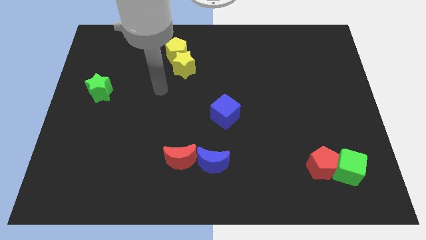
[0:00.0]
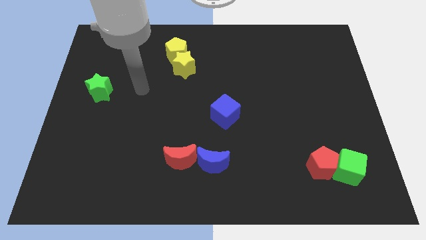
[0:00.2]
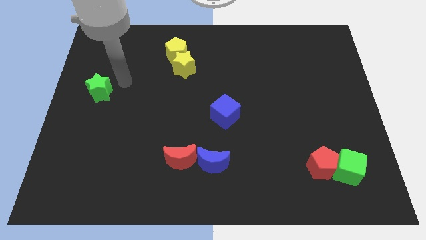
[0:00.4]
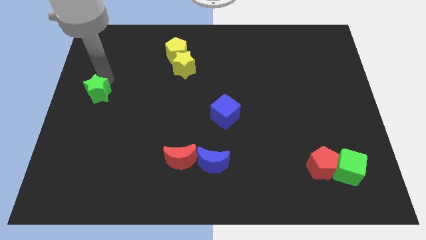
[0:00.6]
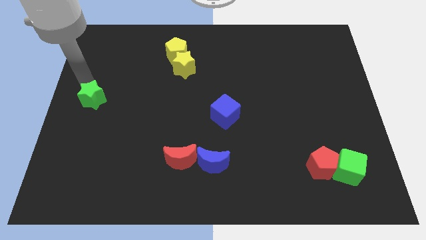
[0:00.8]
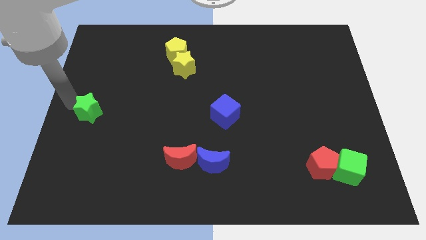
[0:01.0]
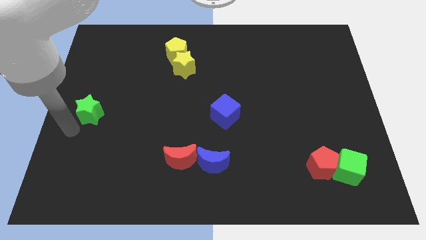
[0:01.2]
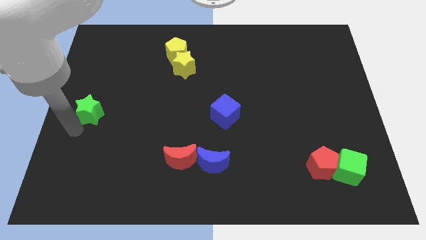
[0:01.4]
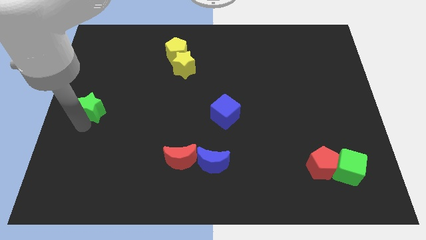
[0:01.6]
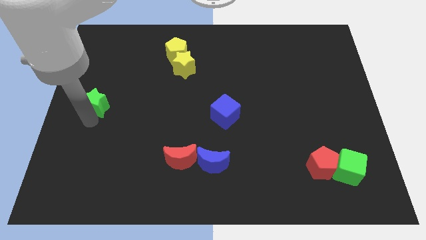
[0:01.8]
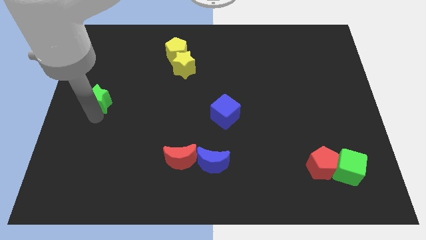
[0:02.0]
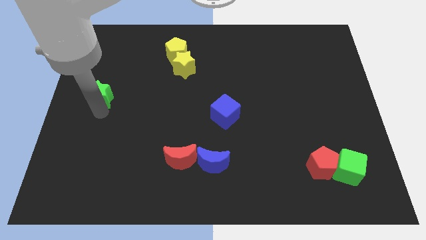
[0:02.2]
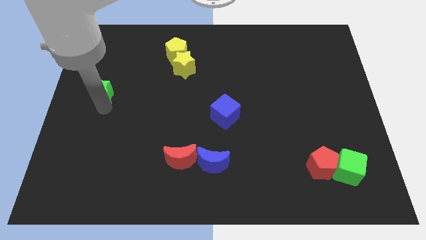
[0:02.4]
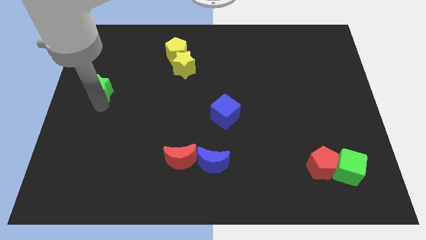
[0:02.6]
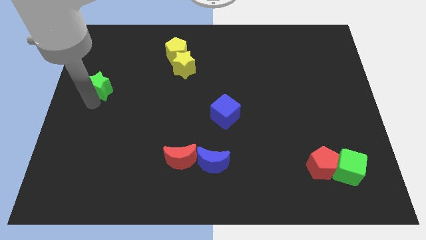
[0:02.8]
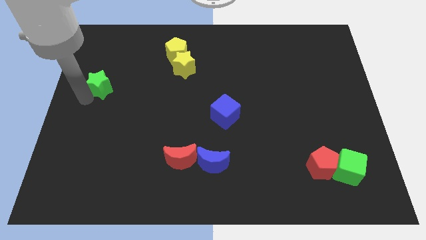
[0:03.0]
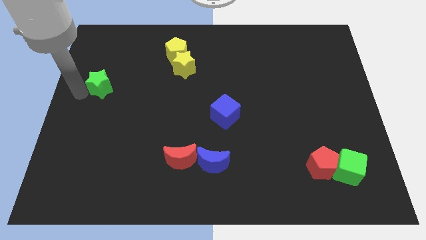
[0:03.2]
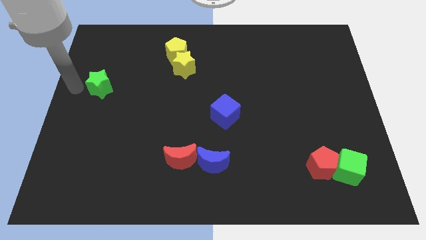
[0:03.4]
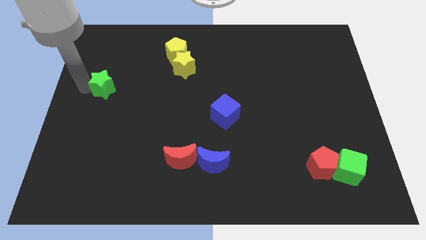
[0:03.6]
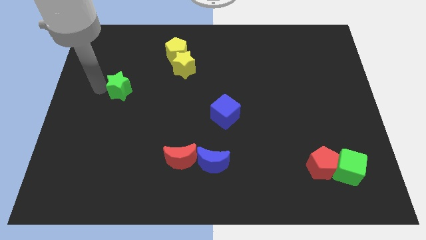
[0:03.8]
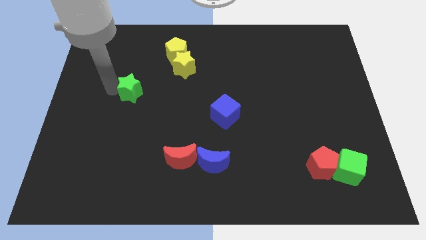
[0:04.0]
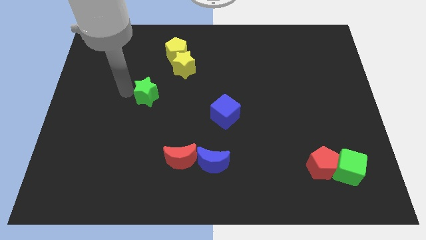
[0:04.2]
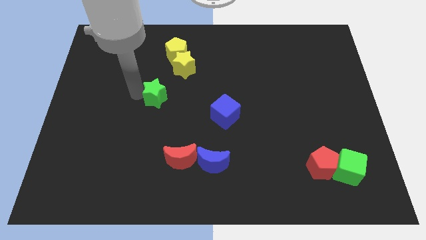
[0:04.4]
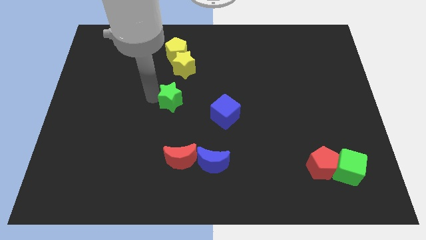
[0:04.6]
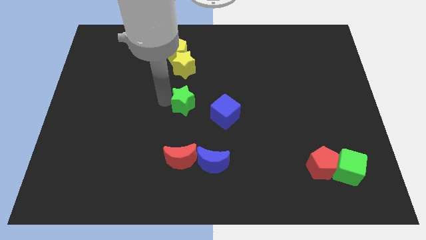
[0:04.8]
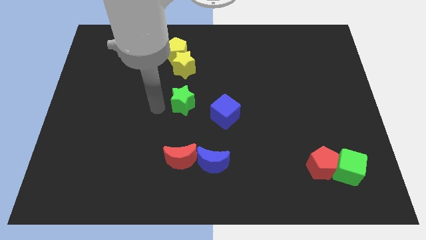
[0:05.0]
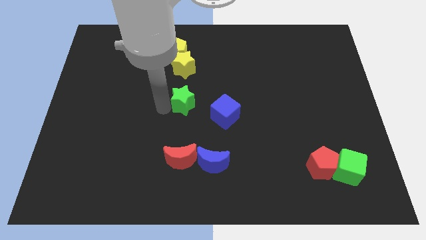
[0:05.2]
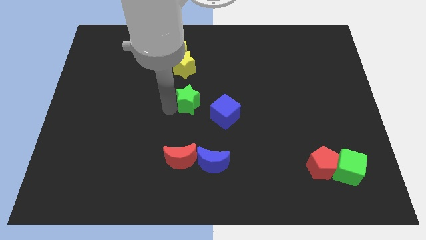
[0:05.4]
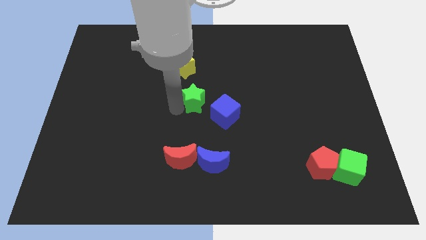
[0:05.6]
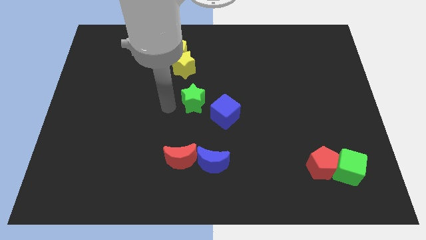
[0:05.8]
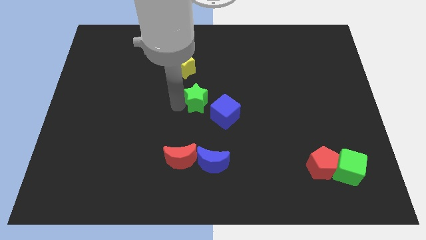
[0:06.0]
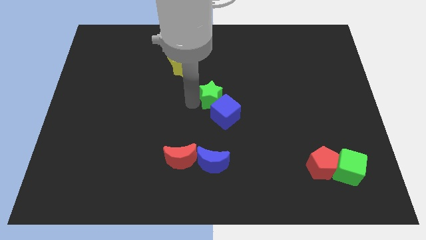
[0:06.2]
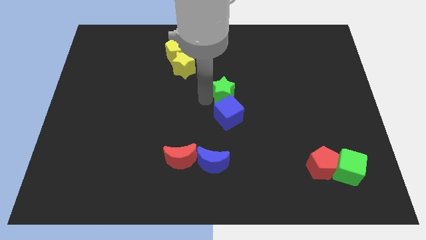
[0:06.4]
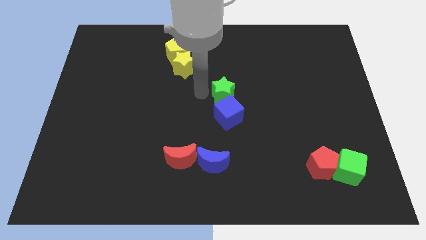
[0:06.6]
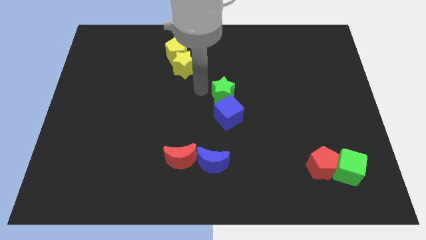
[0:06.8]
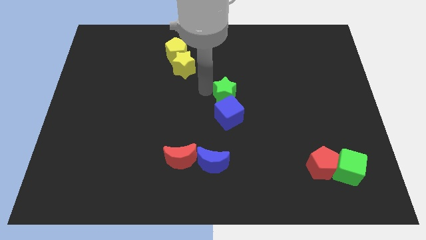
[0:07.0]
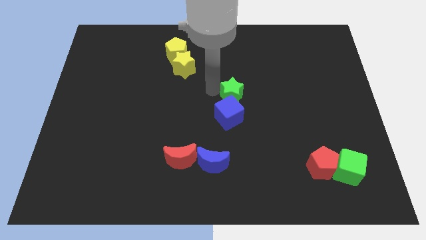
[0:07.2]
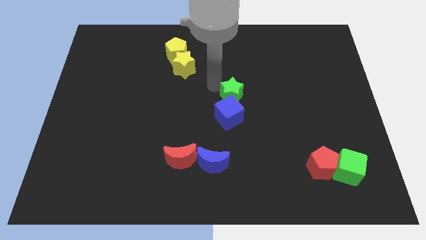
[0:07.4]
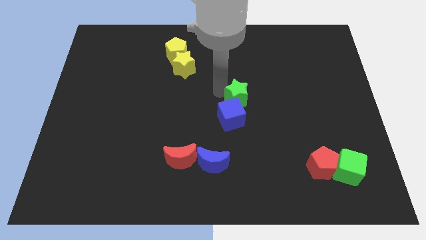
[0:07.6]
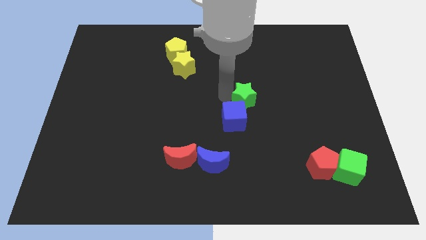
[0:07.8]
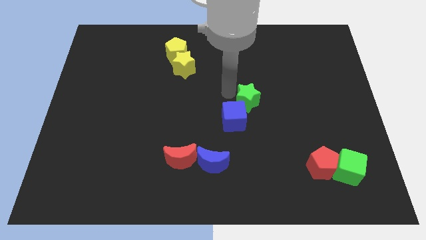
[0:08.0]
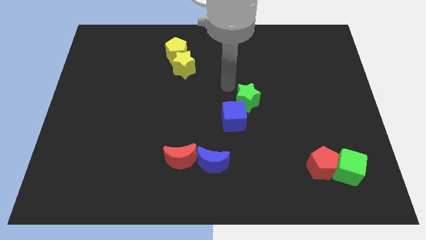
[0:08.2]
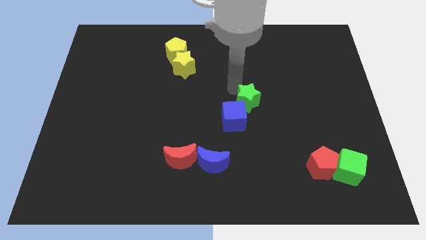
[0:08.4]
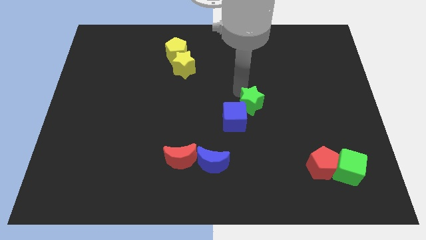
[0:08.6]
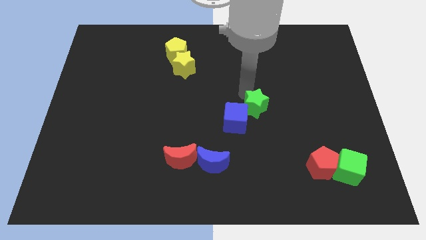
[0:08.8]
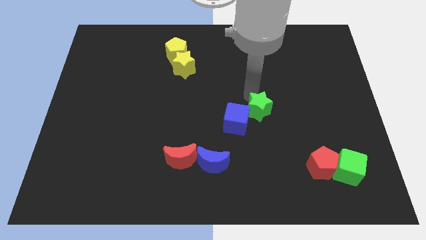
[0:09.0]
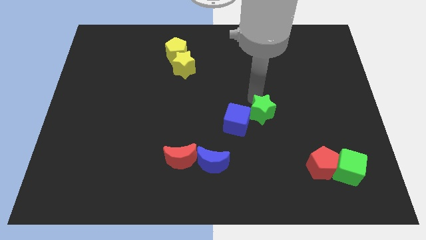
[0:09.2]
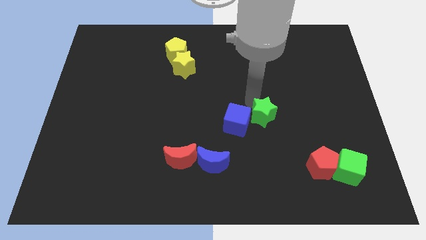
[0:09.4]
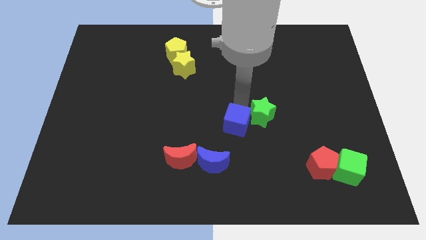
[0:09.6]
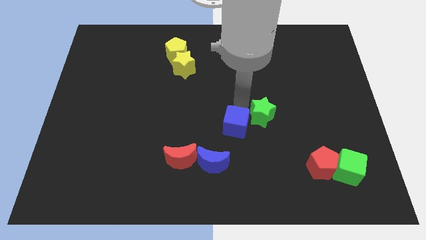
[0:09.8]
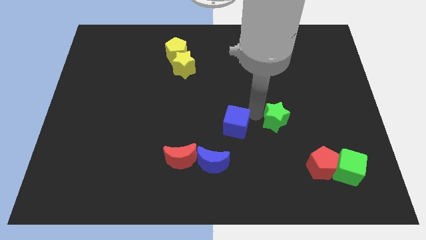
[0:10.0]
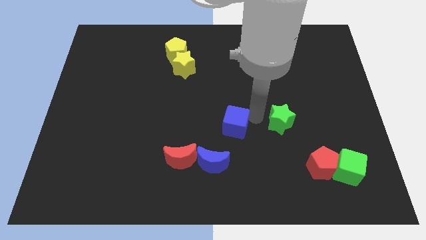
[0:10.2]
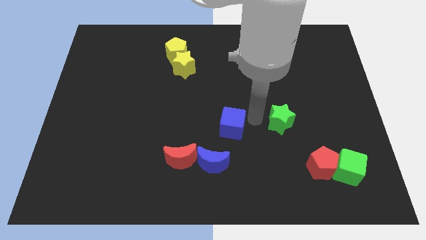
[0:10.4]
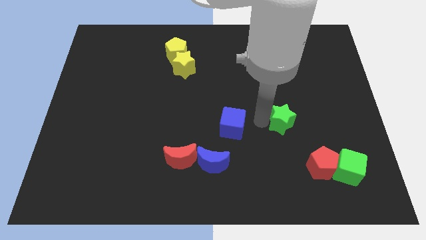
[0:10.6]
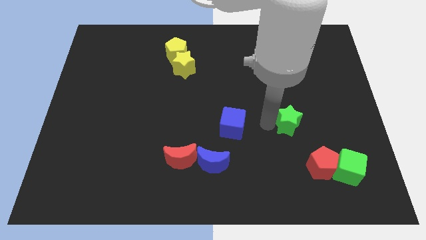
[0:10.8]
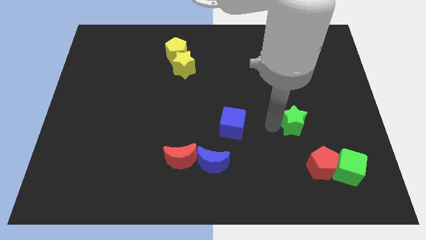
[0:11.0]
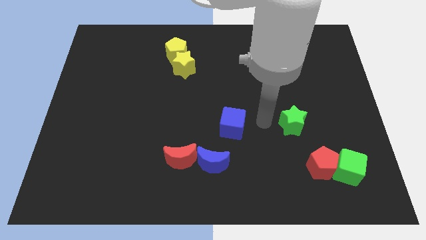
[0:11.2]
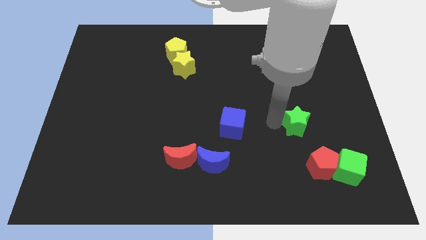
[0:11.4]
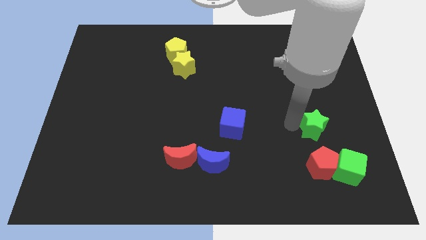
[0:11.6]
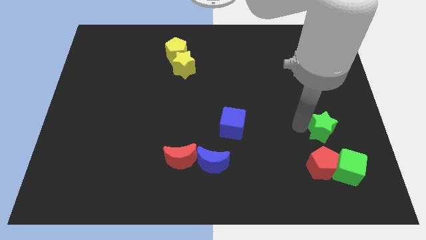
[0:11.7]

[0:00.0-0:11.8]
put the green star to the top side of the green cube

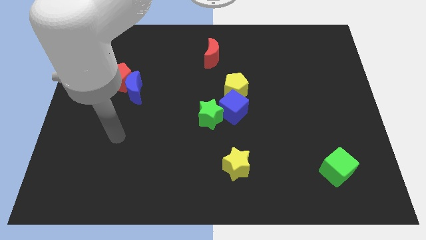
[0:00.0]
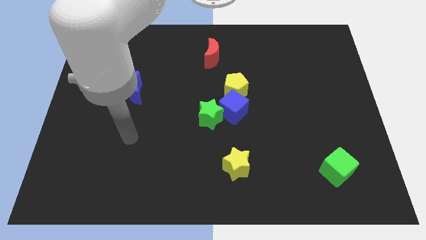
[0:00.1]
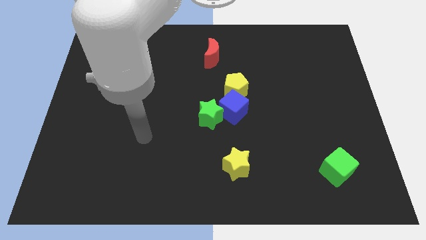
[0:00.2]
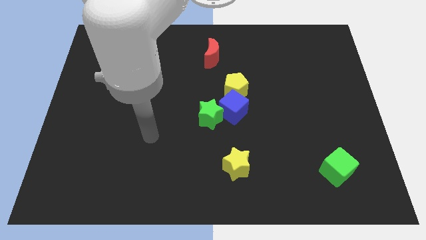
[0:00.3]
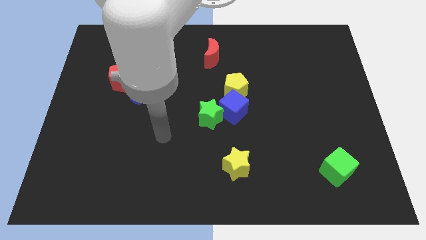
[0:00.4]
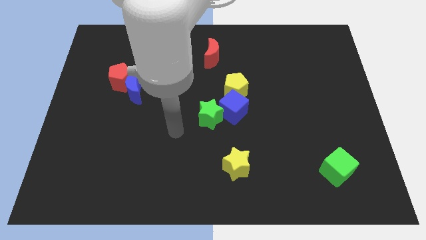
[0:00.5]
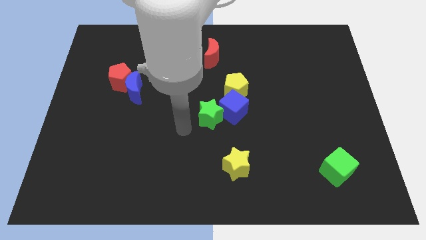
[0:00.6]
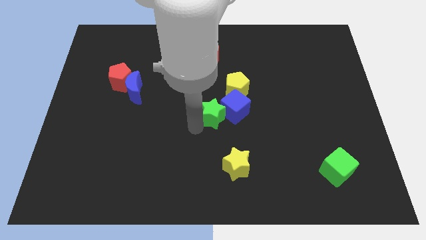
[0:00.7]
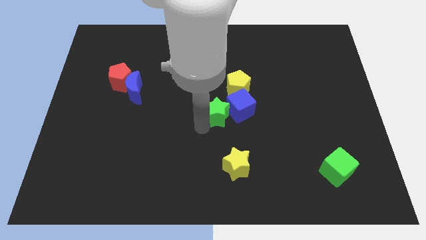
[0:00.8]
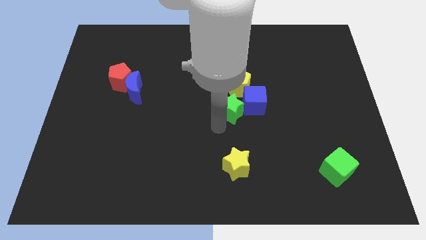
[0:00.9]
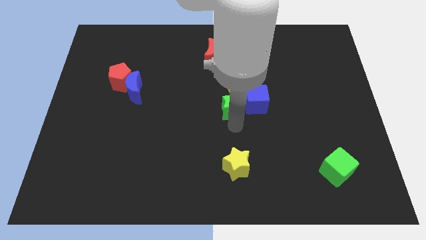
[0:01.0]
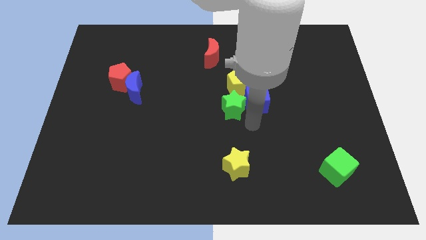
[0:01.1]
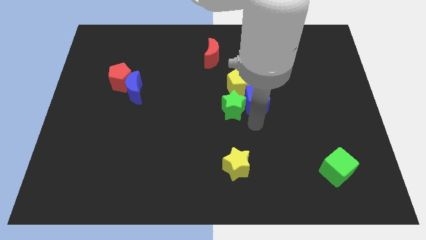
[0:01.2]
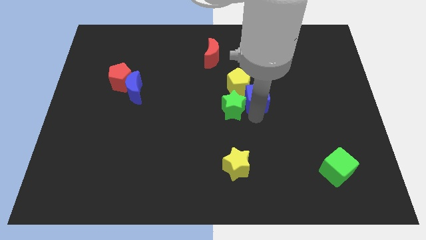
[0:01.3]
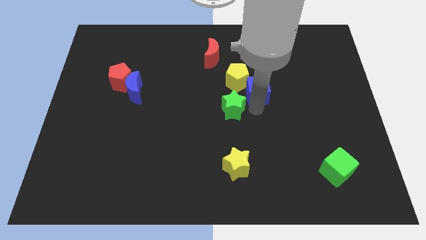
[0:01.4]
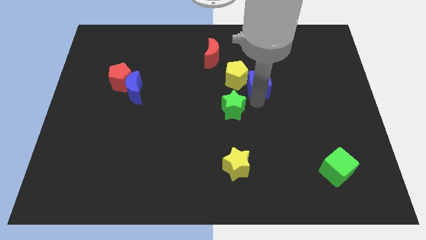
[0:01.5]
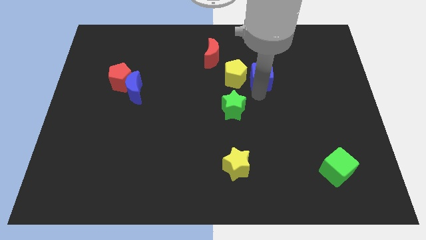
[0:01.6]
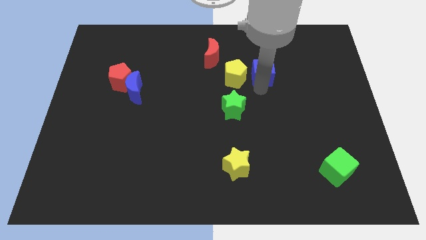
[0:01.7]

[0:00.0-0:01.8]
push the blue cube to the top right of the yellow pentagon
